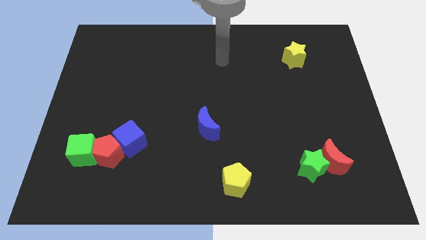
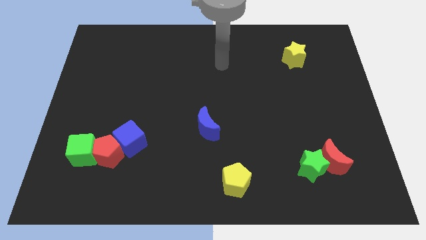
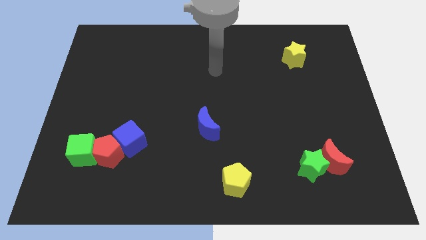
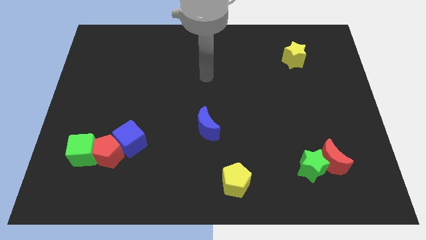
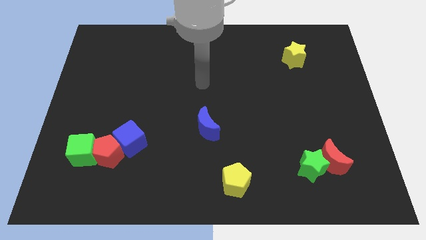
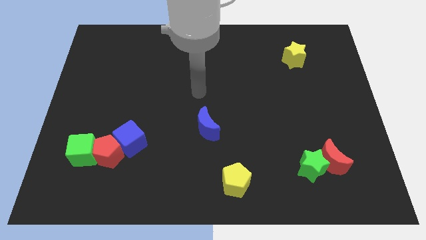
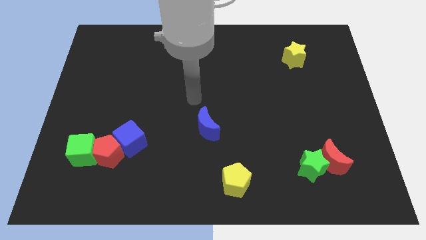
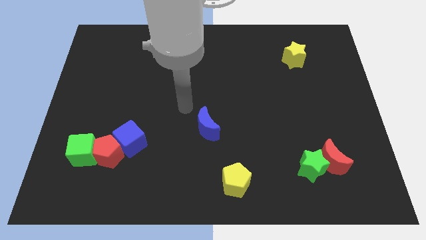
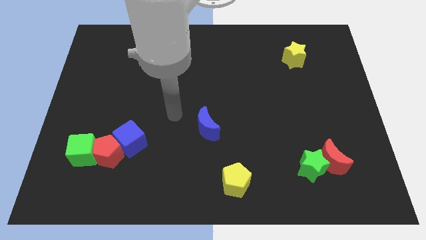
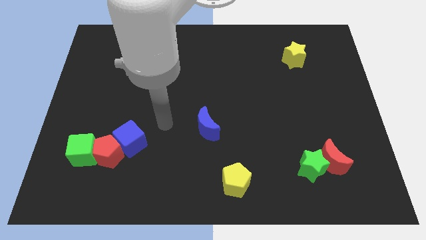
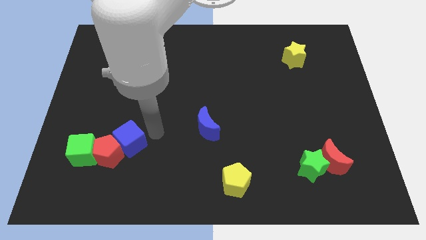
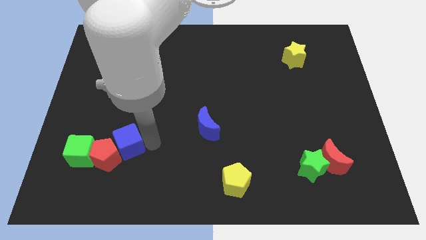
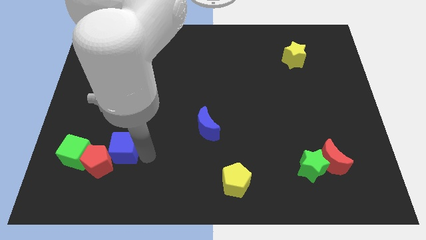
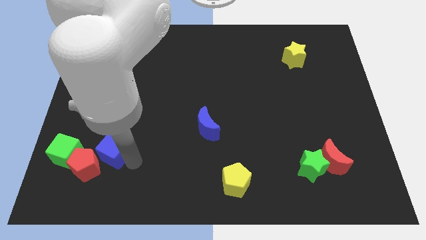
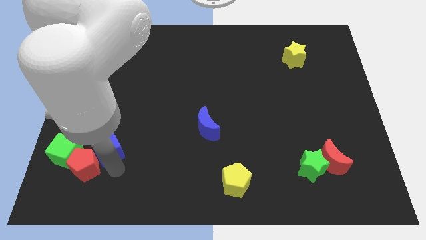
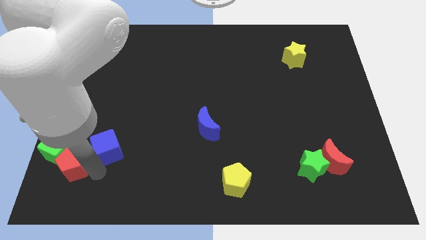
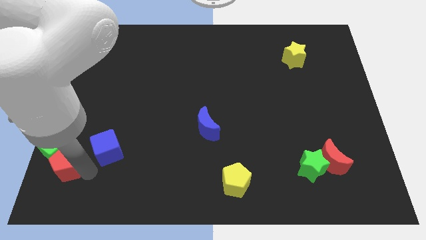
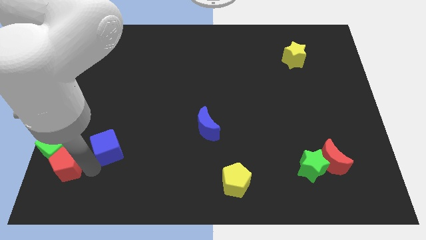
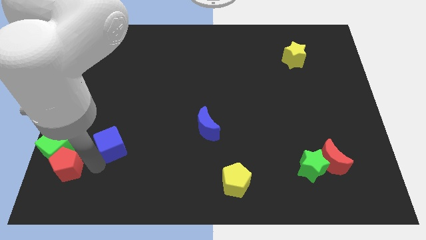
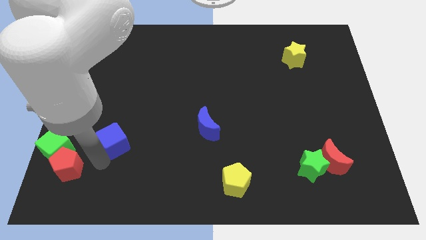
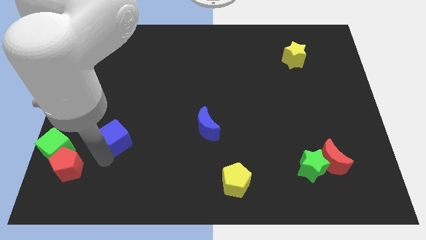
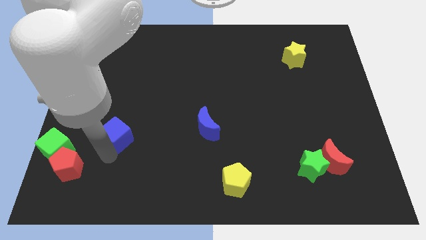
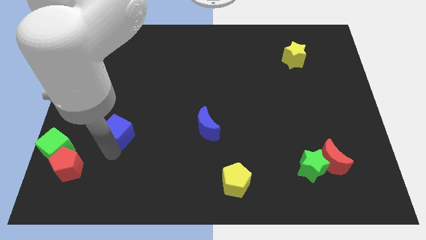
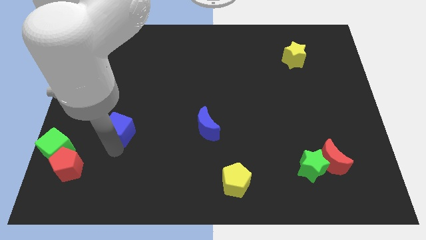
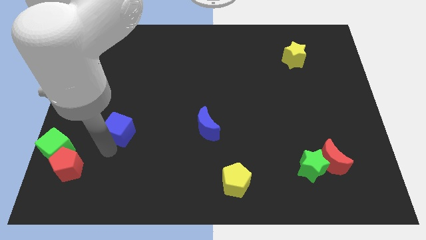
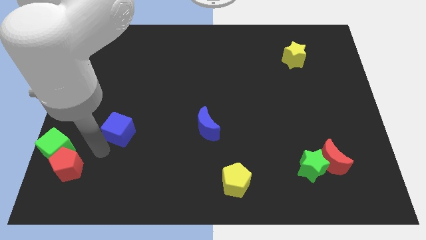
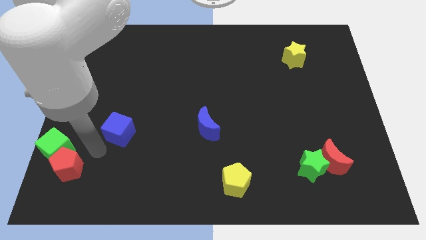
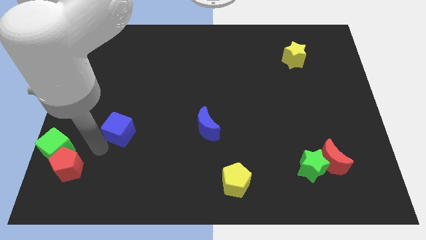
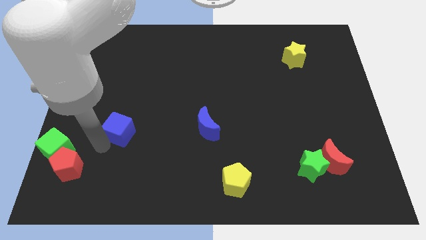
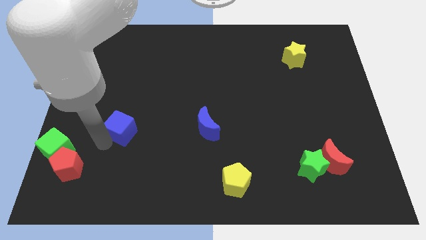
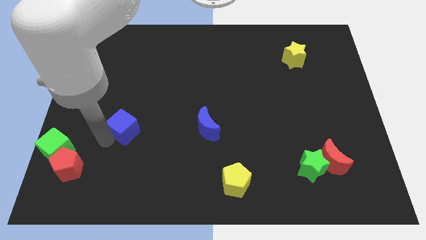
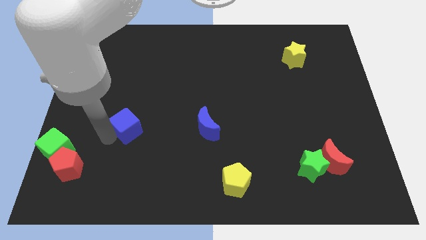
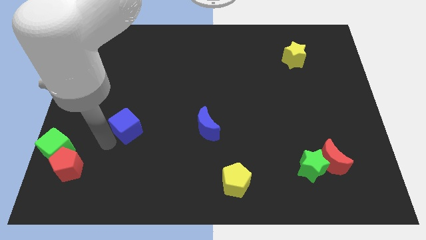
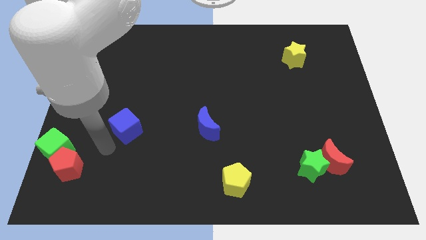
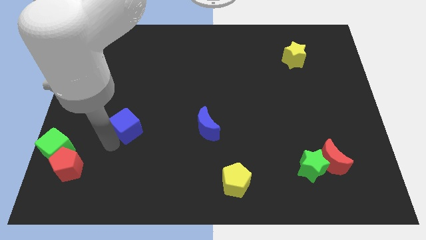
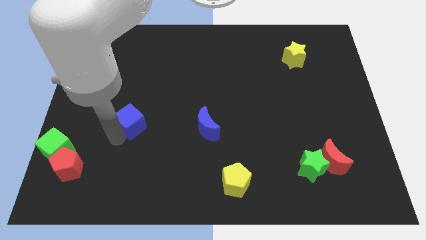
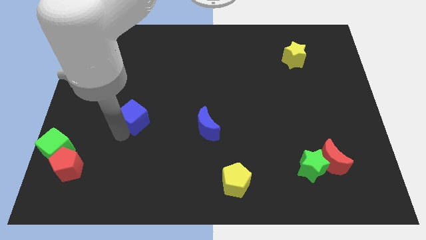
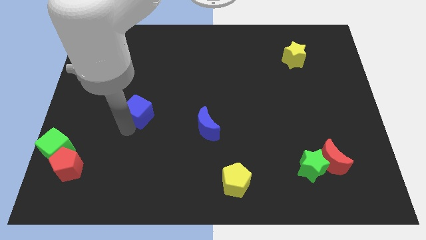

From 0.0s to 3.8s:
slightly push the blue cube upwards

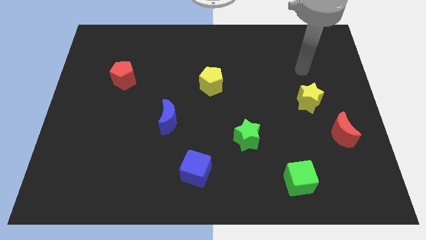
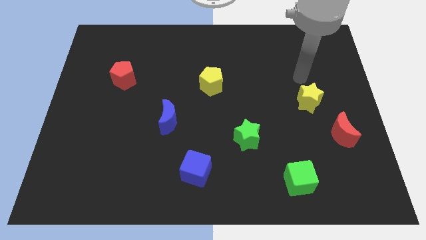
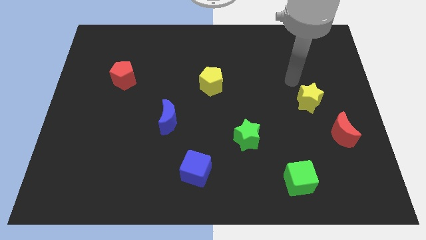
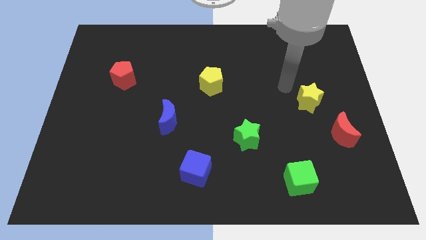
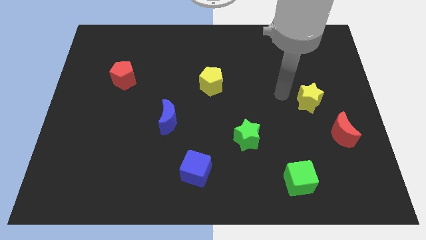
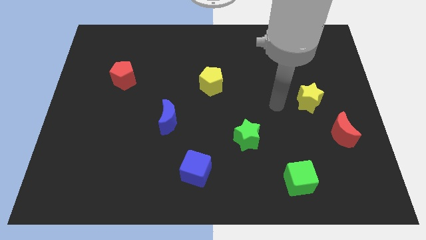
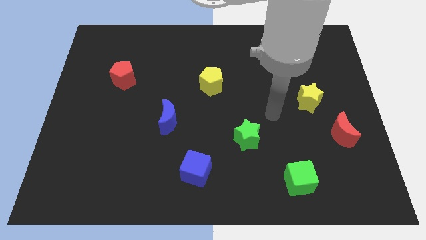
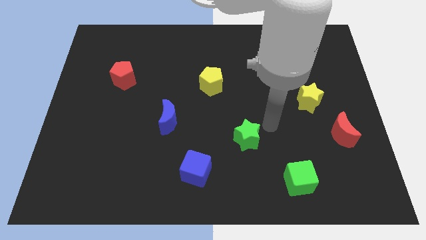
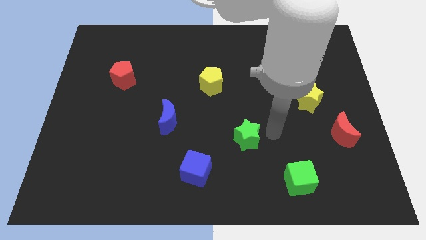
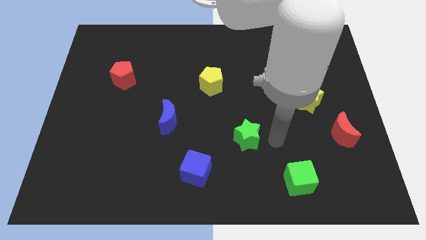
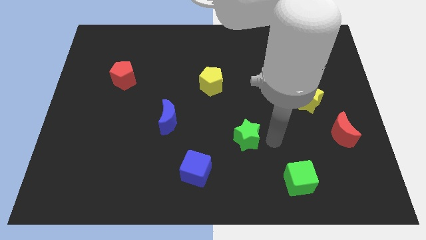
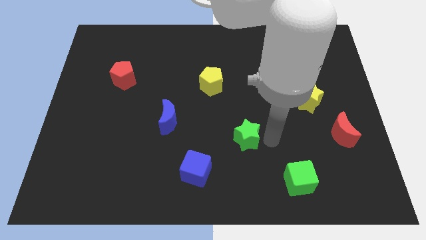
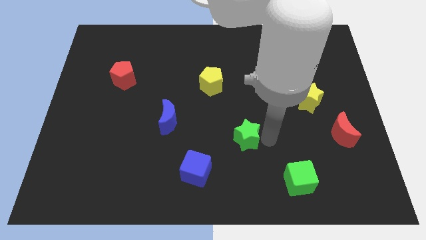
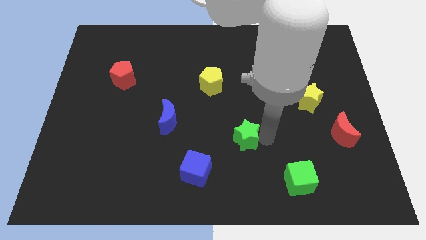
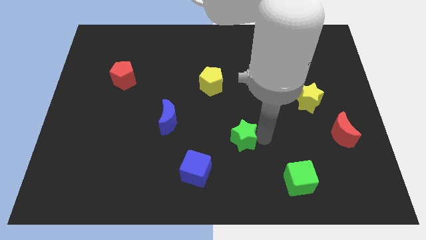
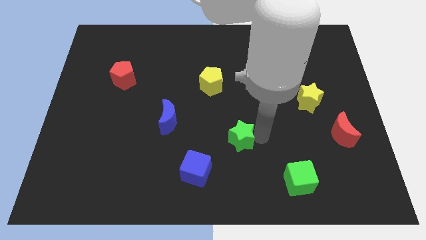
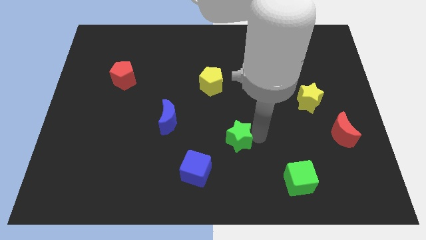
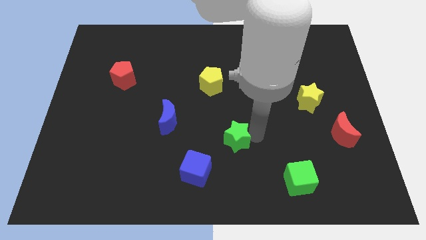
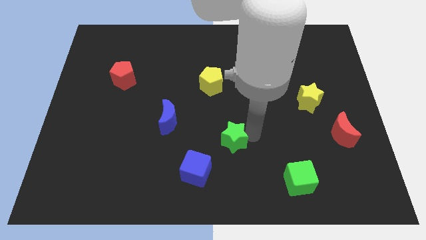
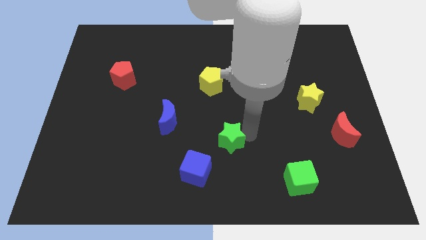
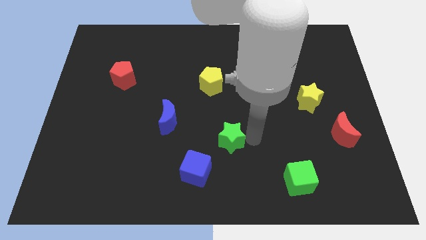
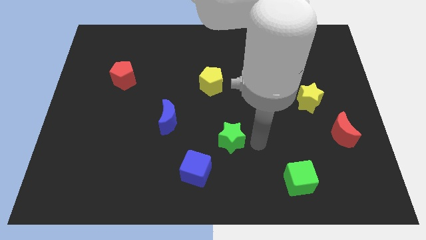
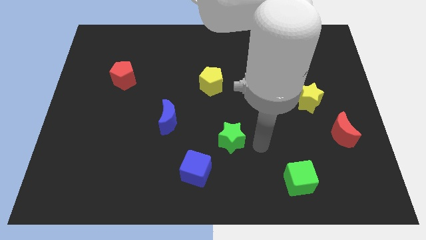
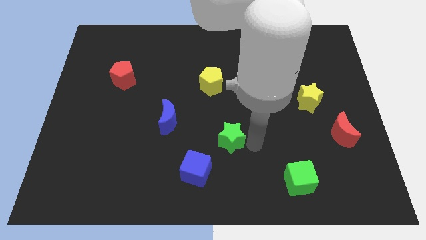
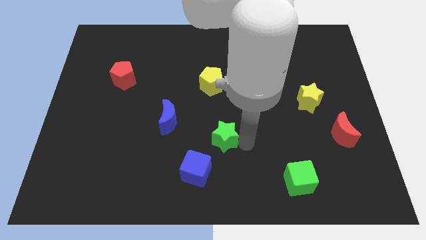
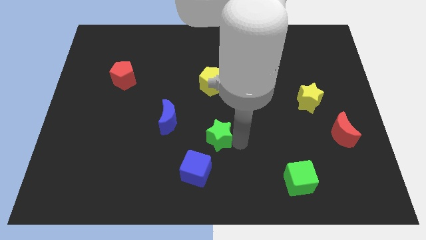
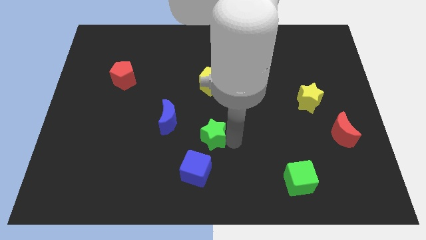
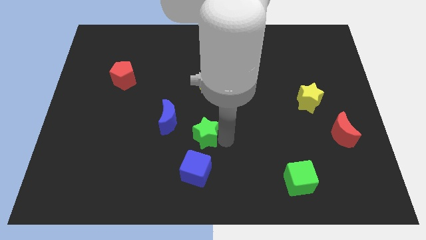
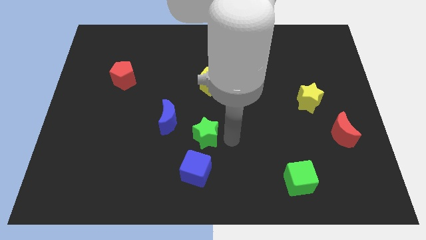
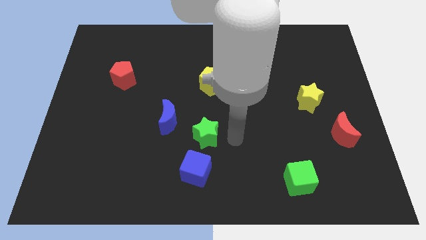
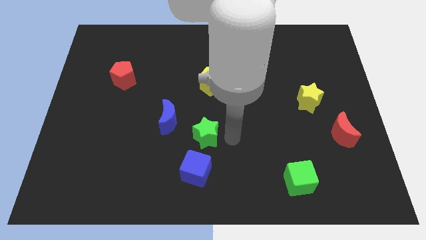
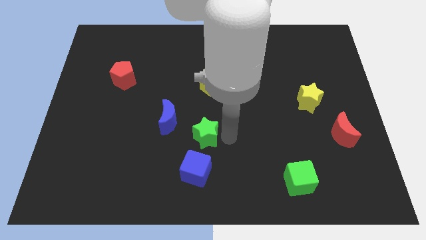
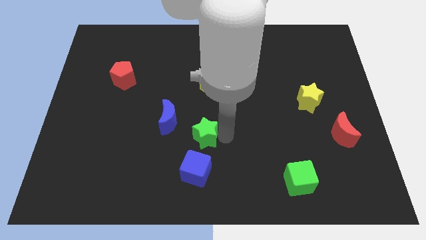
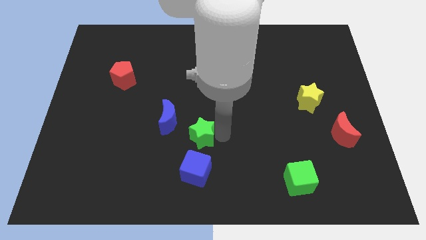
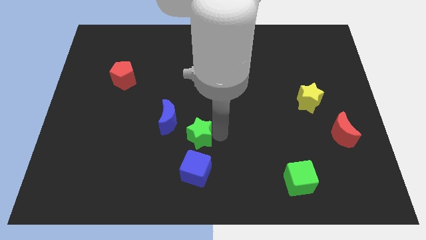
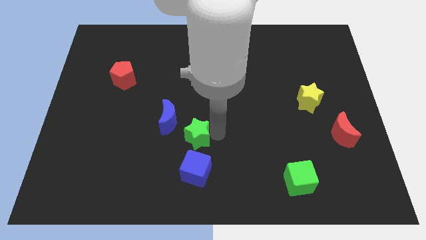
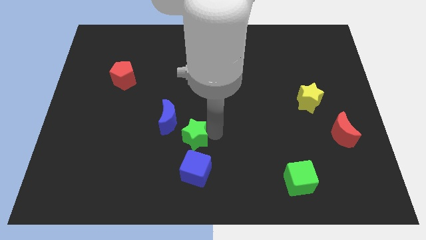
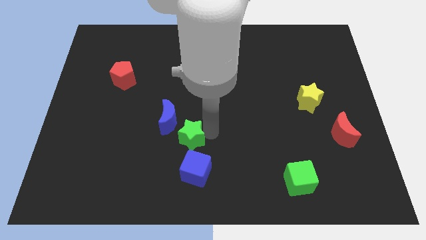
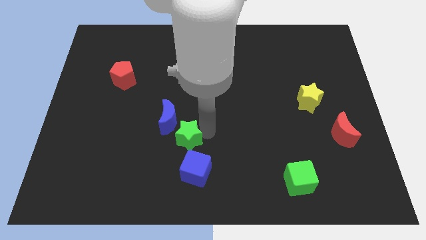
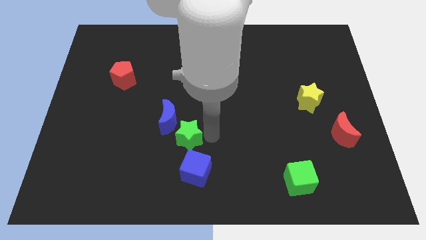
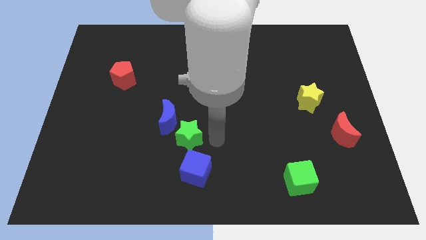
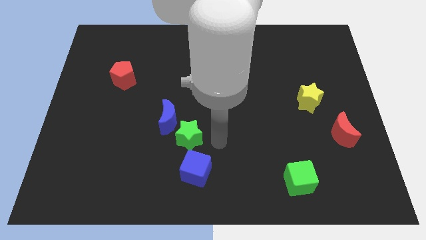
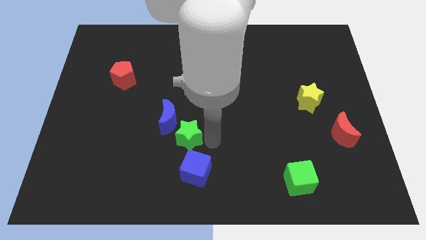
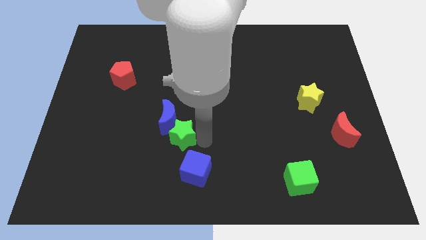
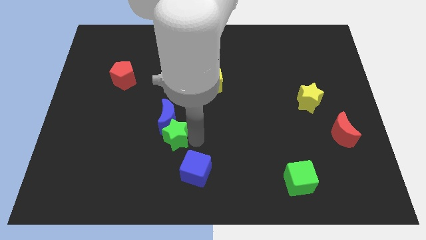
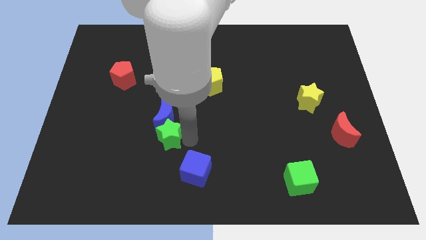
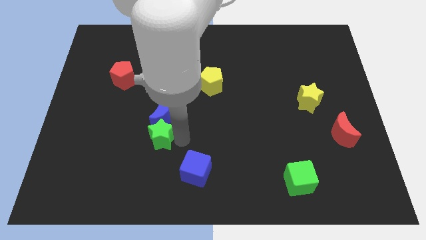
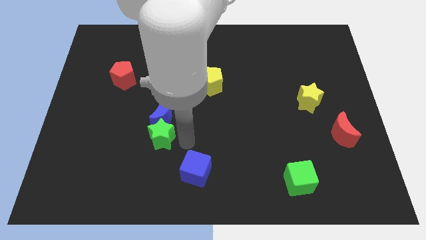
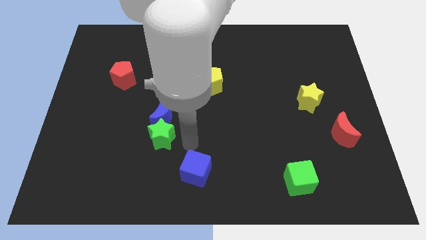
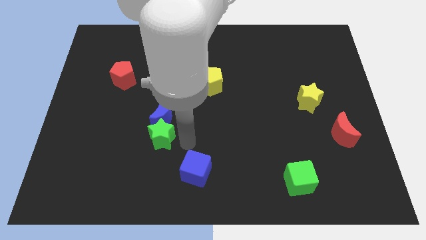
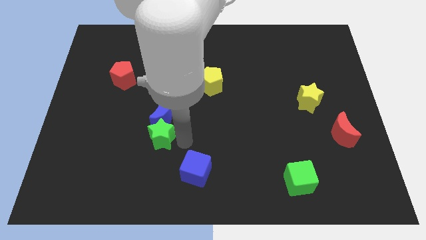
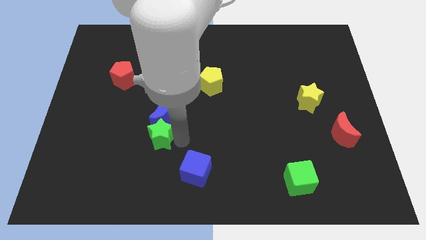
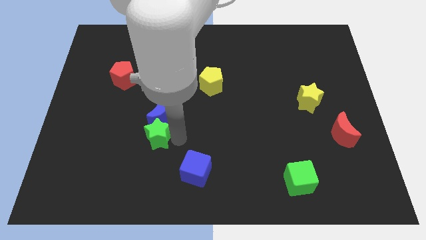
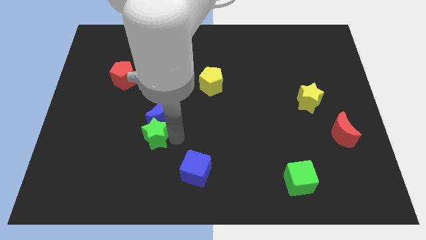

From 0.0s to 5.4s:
push the green star left
